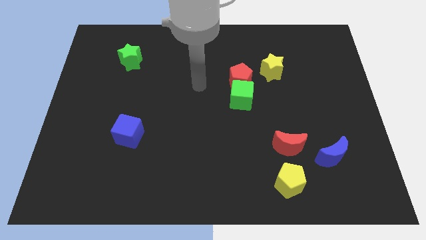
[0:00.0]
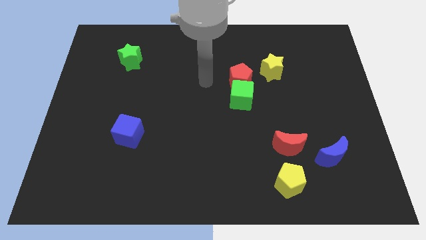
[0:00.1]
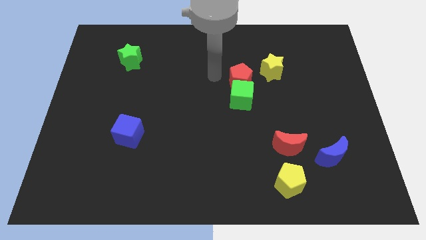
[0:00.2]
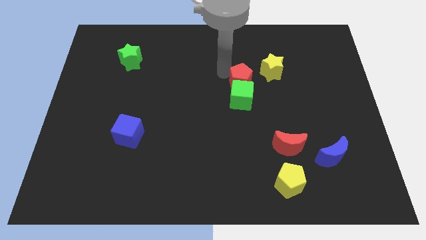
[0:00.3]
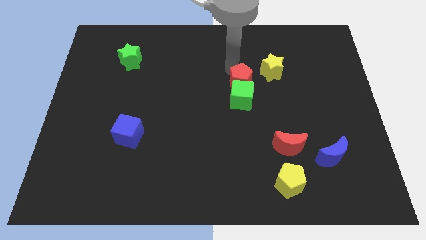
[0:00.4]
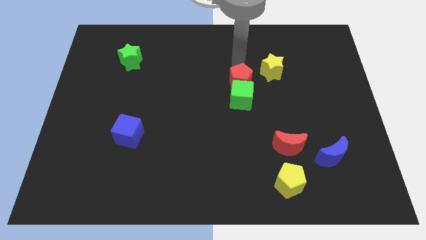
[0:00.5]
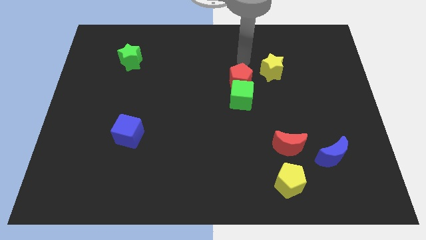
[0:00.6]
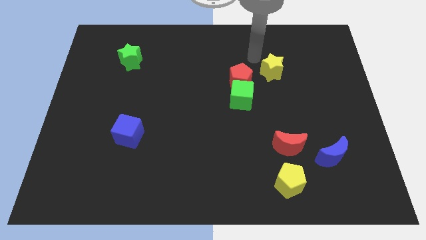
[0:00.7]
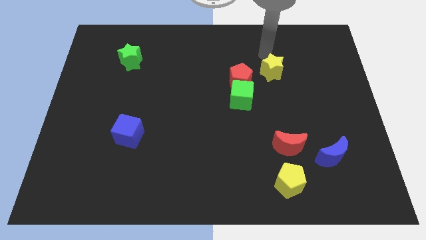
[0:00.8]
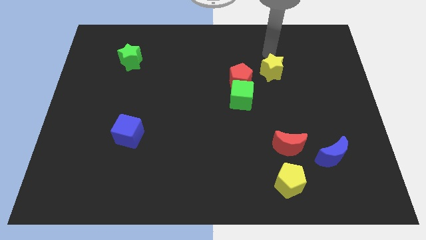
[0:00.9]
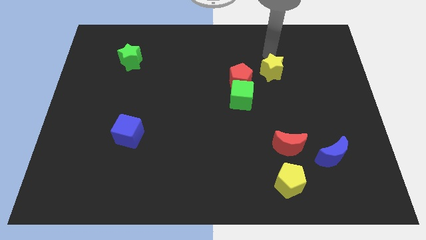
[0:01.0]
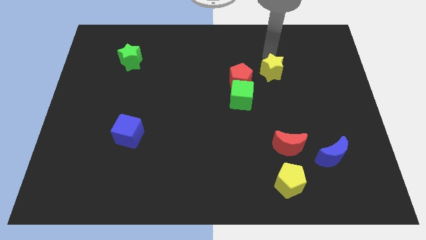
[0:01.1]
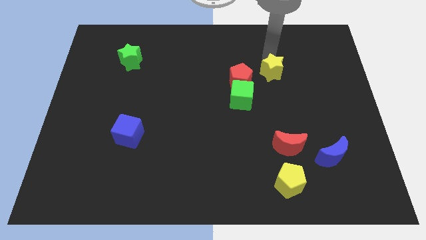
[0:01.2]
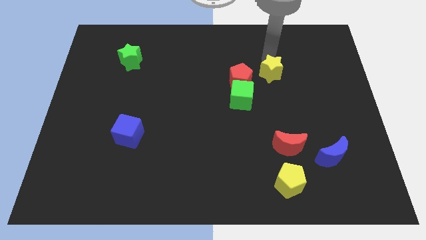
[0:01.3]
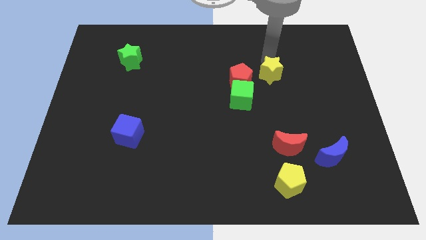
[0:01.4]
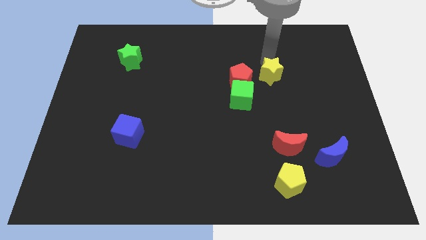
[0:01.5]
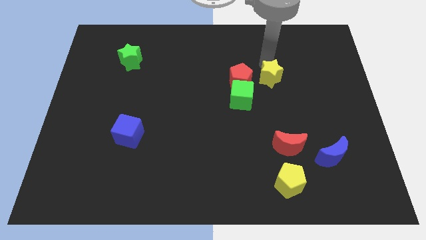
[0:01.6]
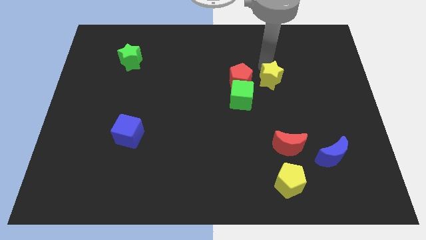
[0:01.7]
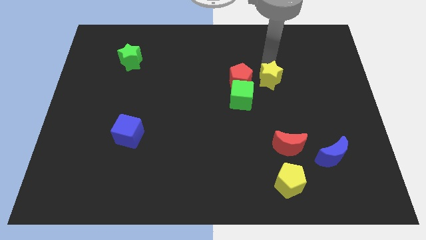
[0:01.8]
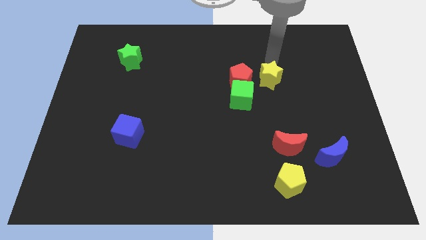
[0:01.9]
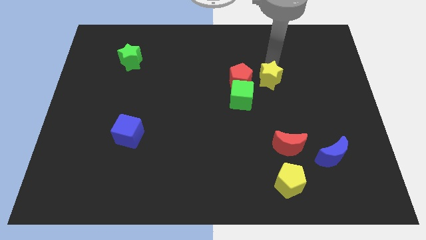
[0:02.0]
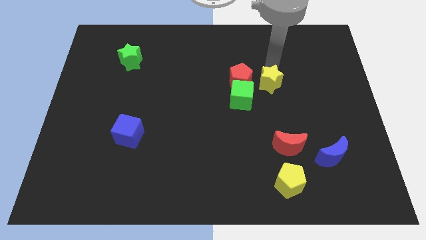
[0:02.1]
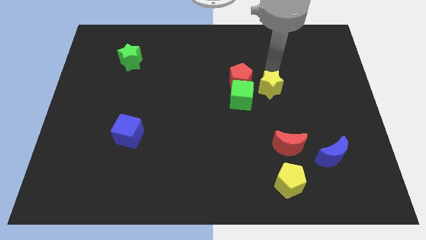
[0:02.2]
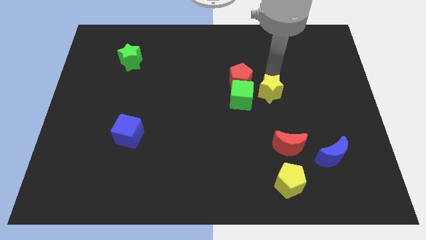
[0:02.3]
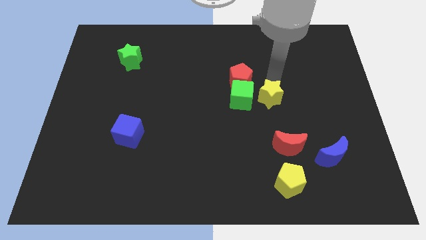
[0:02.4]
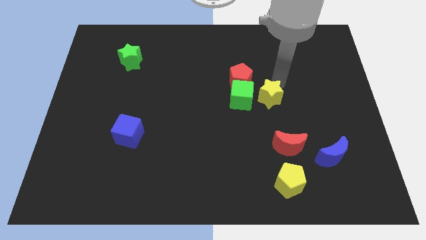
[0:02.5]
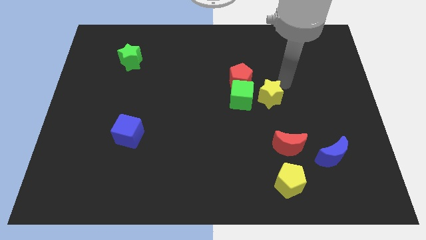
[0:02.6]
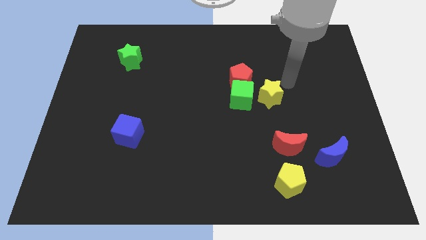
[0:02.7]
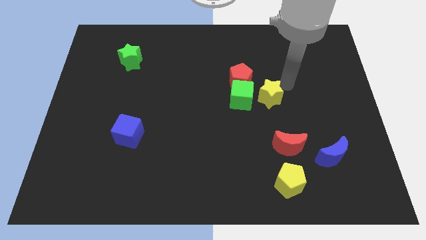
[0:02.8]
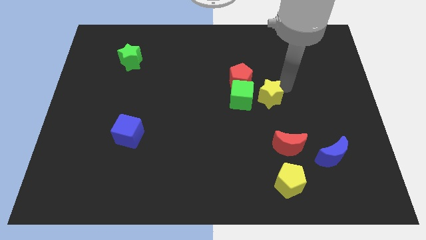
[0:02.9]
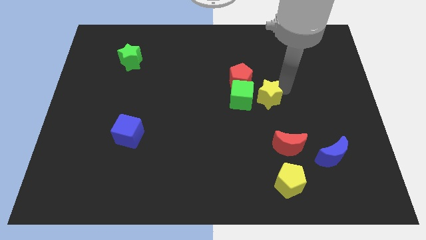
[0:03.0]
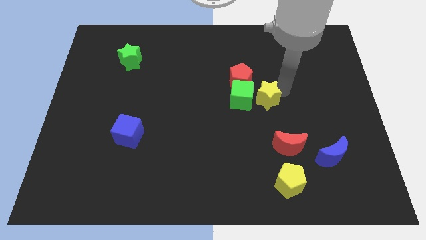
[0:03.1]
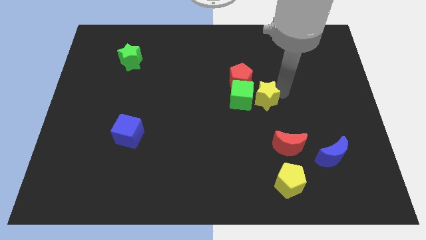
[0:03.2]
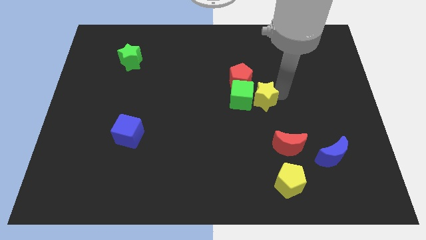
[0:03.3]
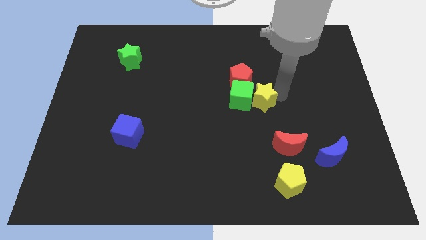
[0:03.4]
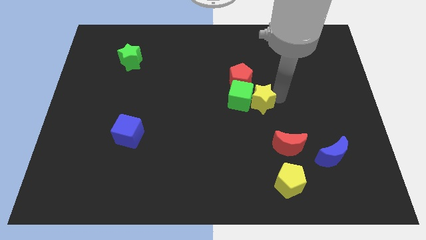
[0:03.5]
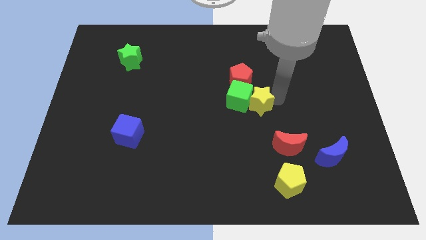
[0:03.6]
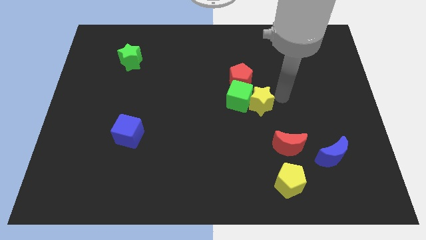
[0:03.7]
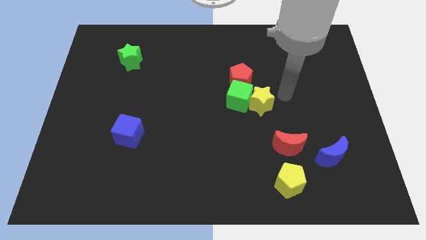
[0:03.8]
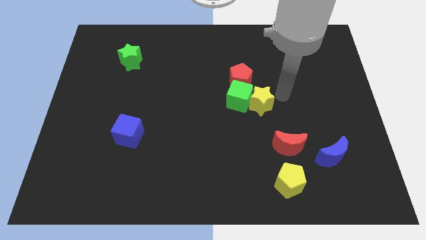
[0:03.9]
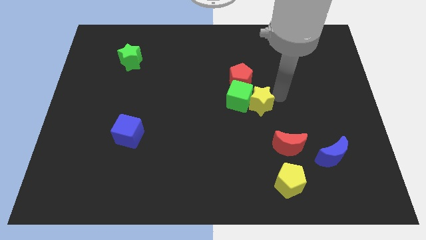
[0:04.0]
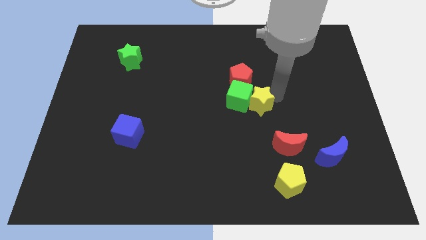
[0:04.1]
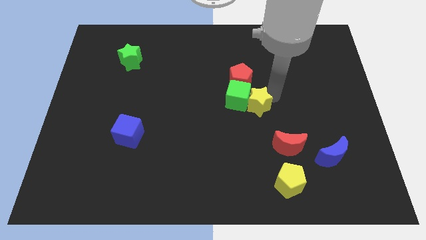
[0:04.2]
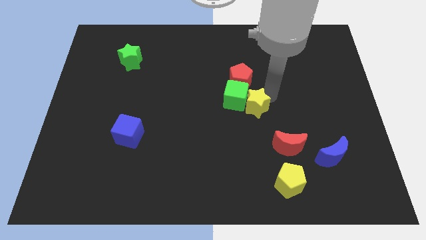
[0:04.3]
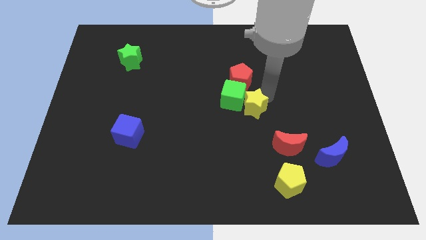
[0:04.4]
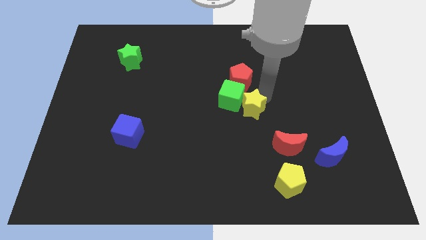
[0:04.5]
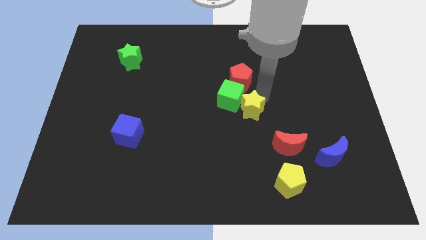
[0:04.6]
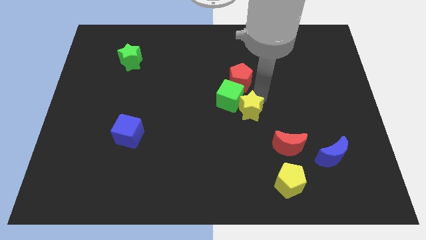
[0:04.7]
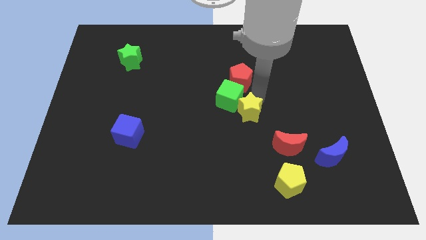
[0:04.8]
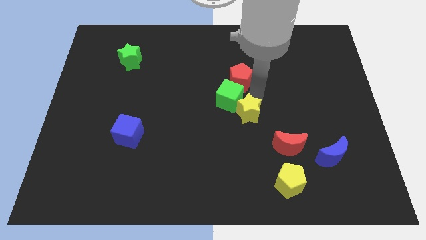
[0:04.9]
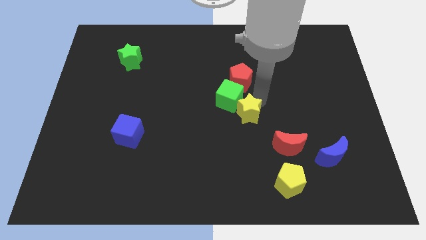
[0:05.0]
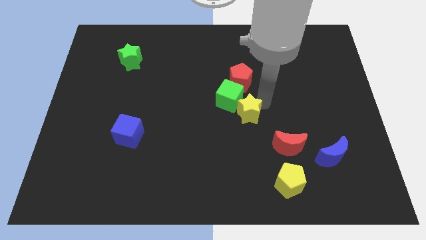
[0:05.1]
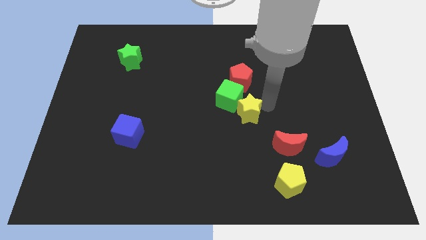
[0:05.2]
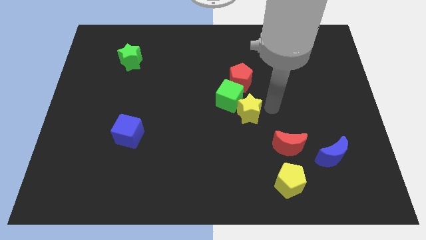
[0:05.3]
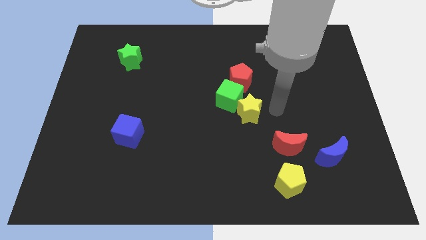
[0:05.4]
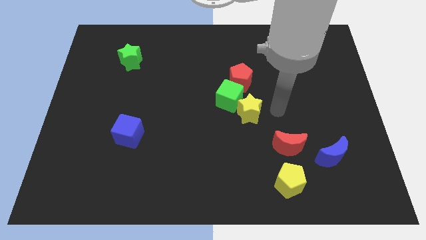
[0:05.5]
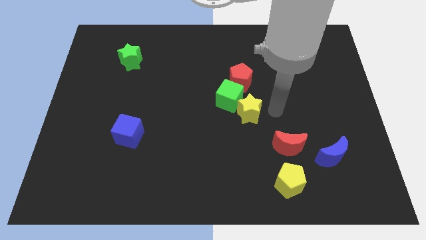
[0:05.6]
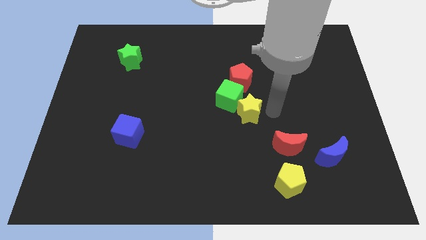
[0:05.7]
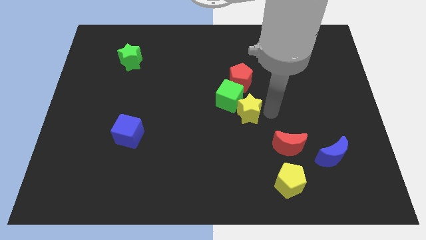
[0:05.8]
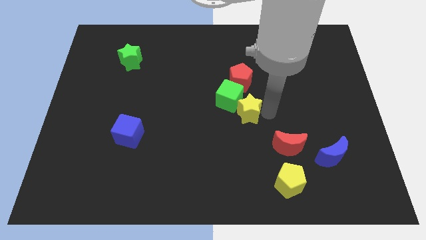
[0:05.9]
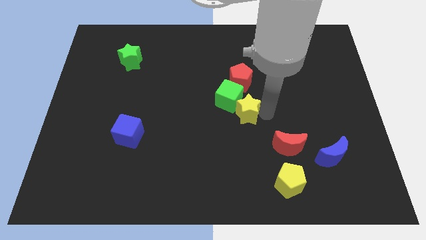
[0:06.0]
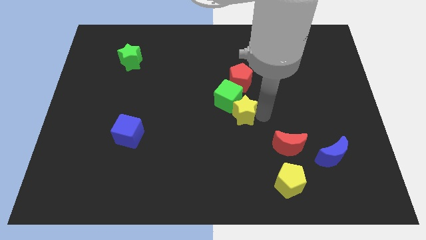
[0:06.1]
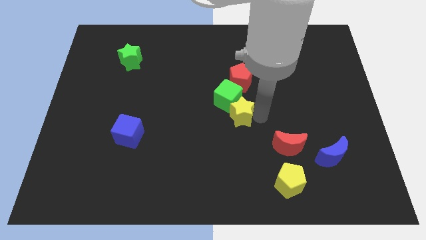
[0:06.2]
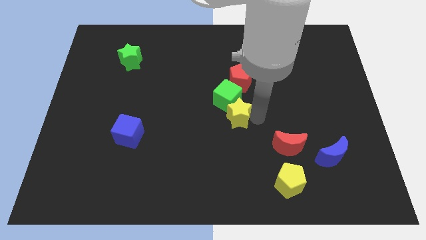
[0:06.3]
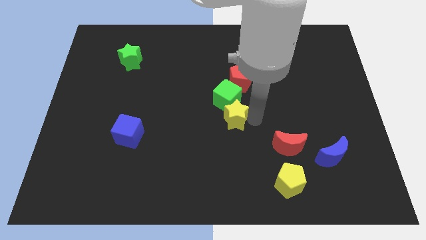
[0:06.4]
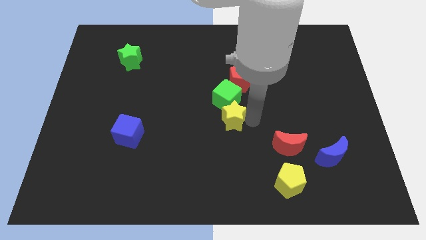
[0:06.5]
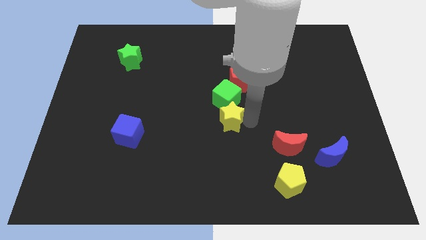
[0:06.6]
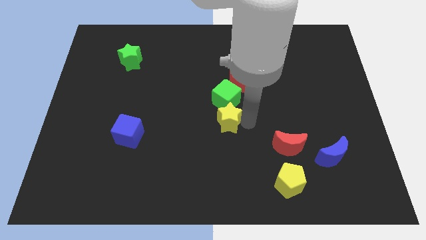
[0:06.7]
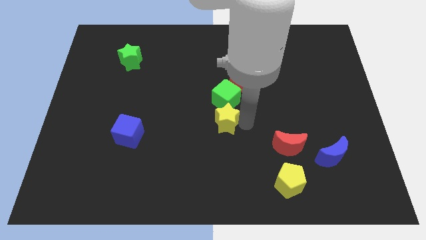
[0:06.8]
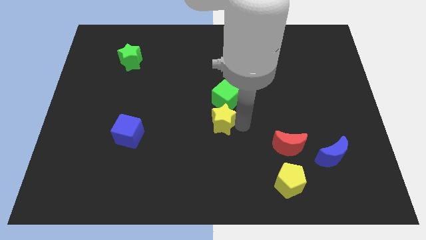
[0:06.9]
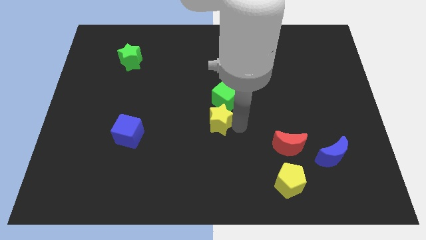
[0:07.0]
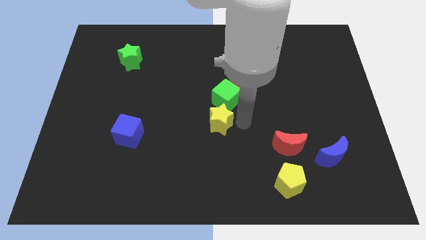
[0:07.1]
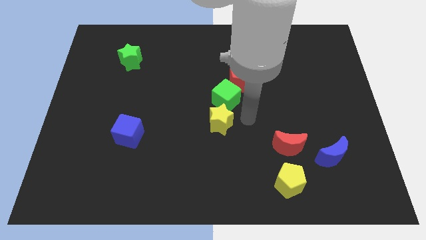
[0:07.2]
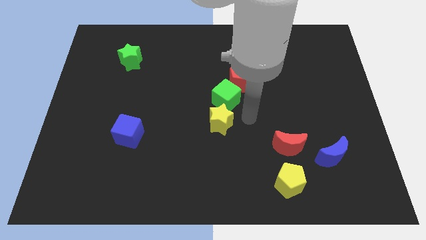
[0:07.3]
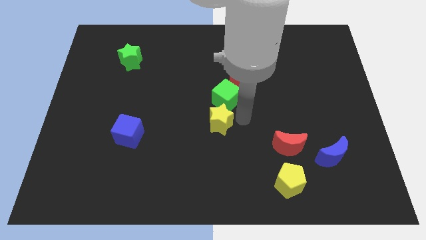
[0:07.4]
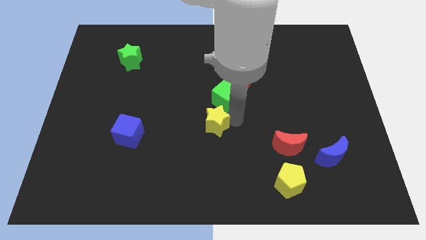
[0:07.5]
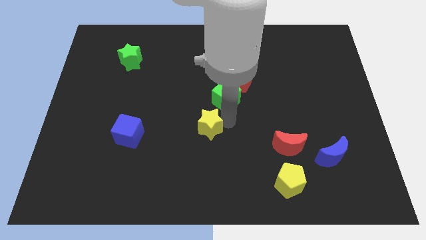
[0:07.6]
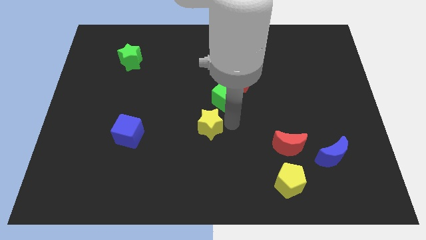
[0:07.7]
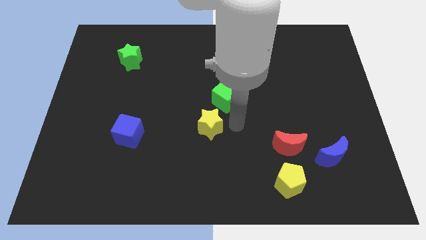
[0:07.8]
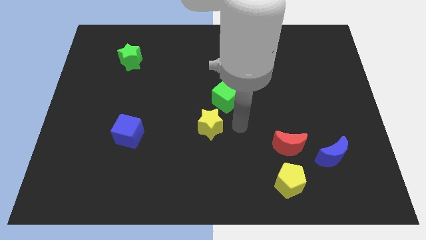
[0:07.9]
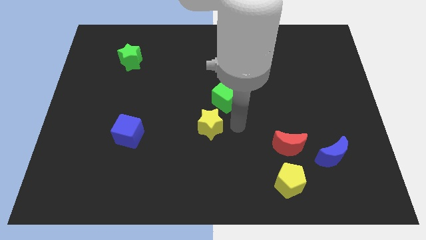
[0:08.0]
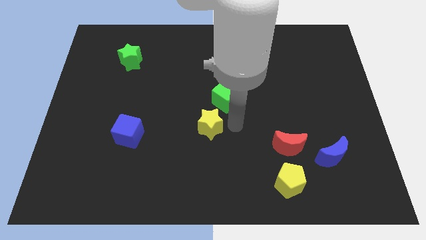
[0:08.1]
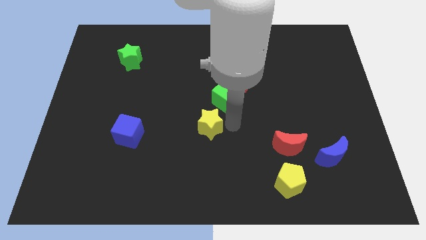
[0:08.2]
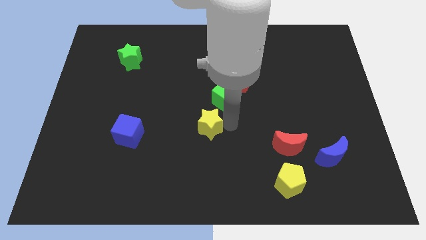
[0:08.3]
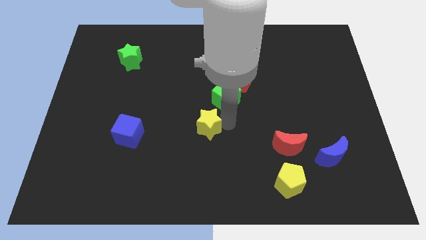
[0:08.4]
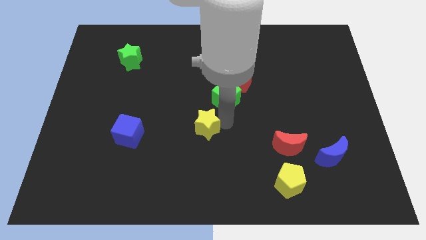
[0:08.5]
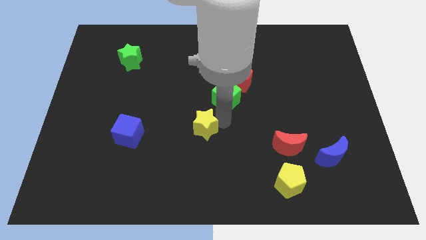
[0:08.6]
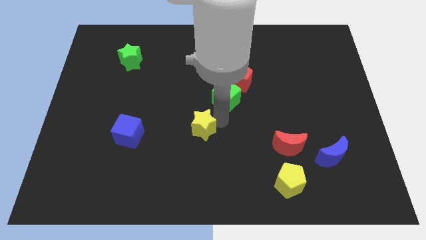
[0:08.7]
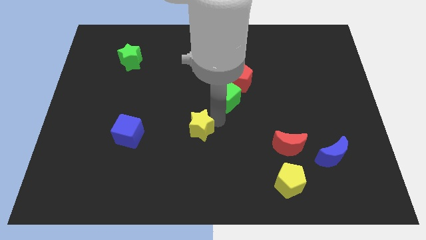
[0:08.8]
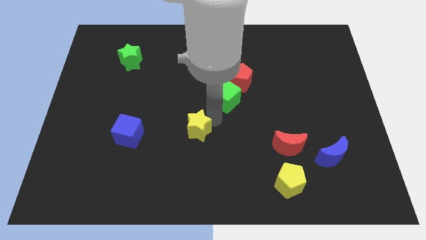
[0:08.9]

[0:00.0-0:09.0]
push the yellow star just right of the blue cube
